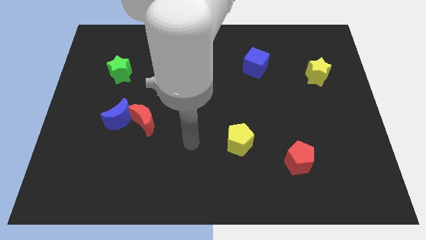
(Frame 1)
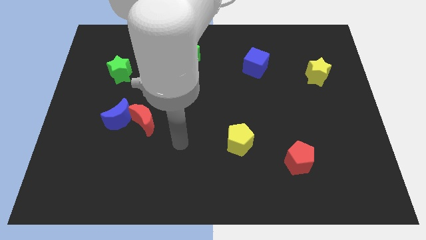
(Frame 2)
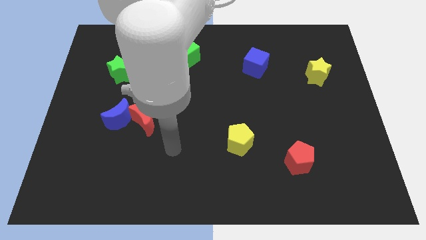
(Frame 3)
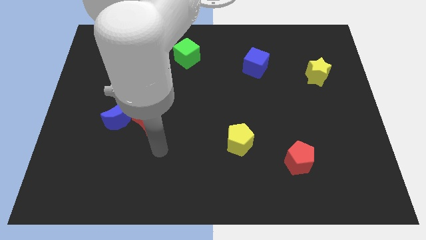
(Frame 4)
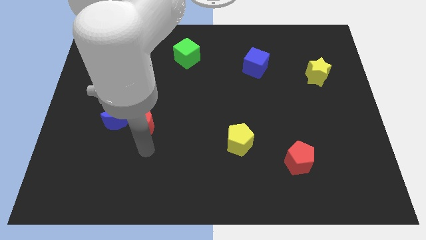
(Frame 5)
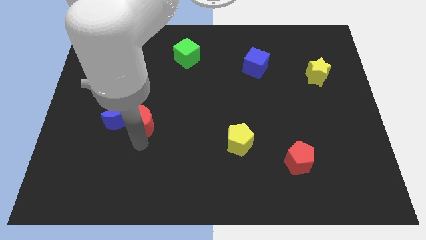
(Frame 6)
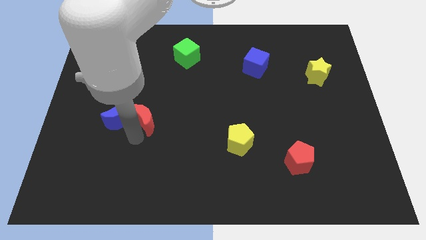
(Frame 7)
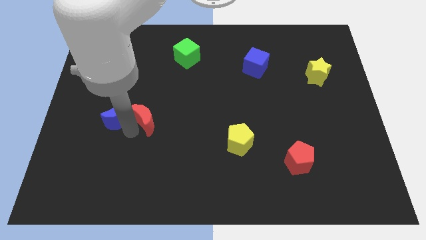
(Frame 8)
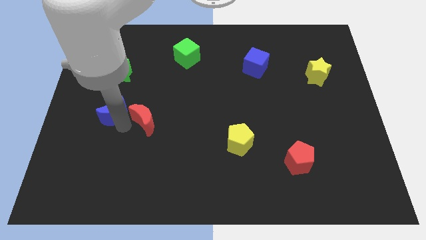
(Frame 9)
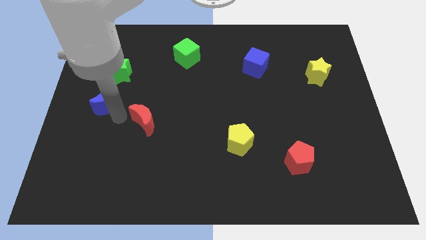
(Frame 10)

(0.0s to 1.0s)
pull the red moon apart from the blue moon

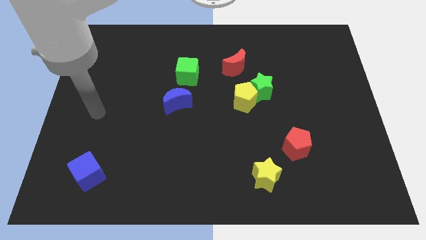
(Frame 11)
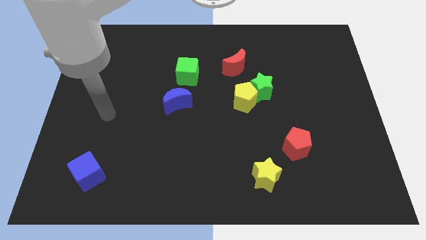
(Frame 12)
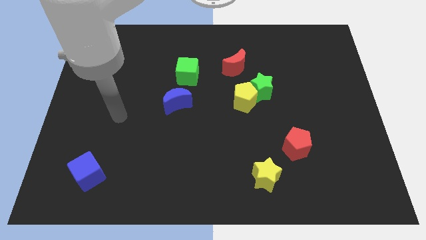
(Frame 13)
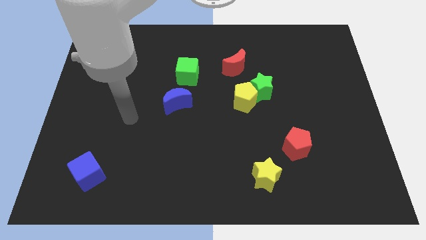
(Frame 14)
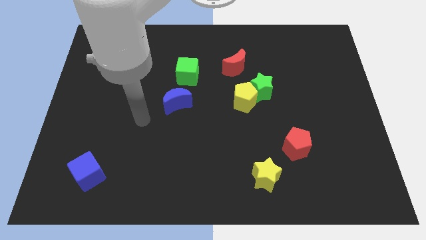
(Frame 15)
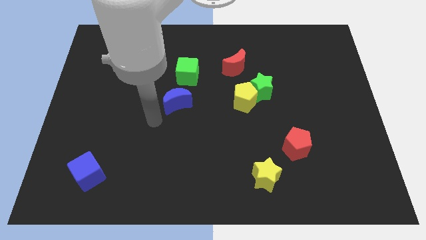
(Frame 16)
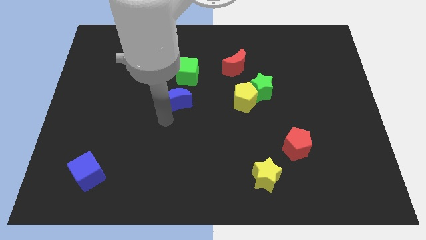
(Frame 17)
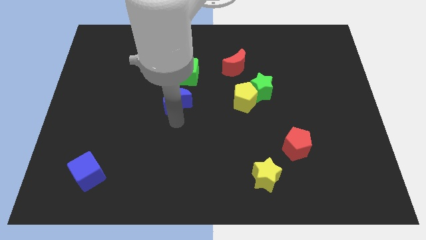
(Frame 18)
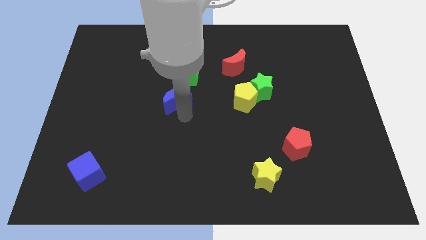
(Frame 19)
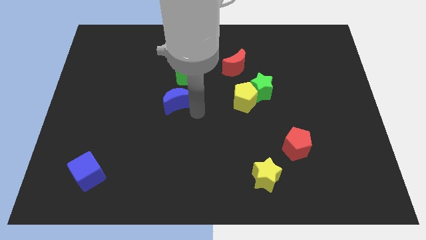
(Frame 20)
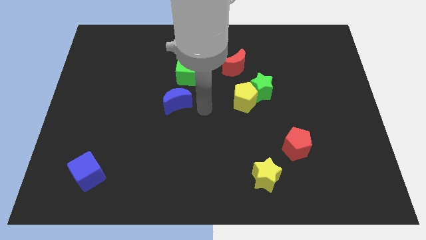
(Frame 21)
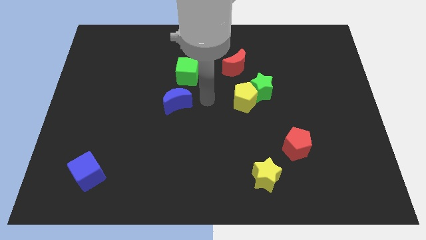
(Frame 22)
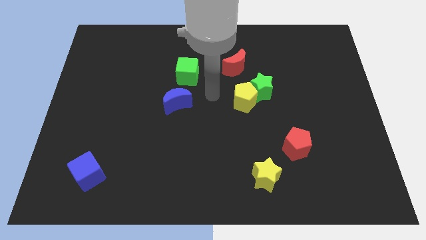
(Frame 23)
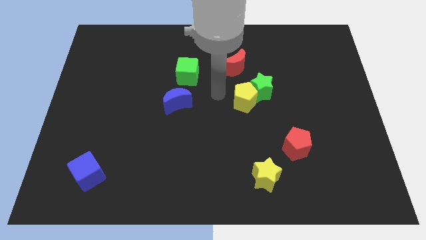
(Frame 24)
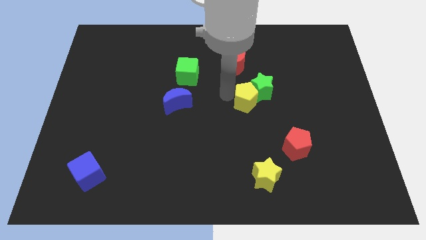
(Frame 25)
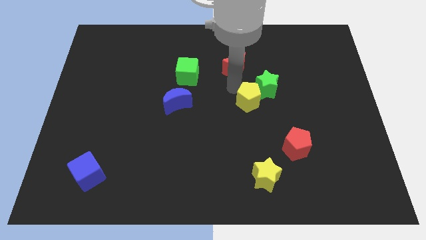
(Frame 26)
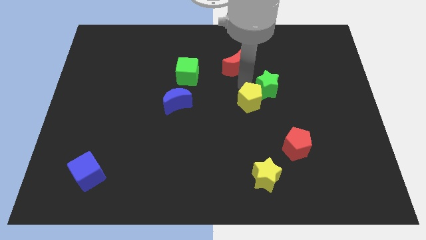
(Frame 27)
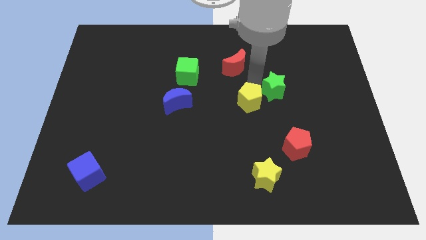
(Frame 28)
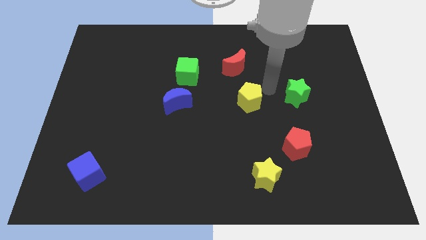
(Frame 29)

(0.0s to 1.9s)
pull the yellow pentagon apart from the green star

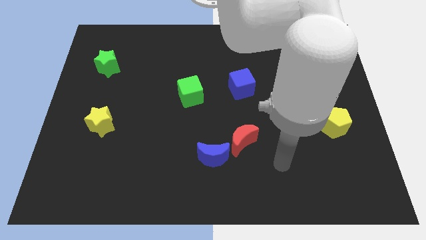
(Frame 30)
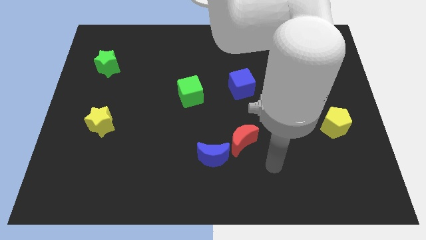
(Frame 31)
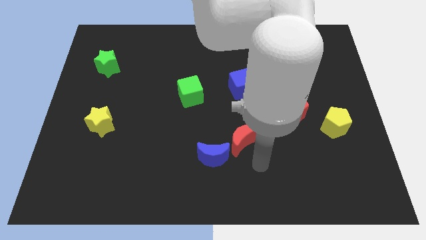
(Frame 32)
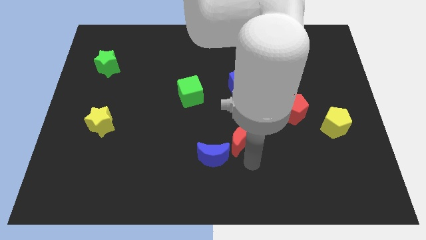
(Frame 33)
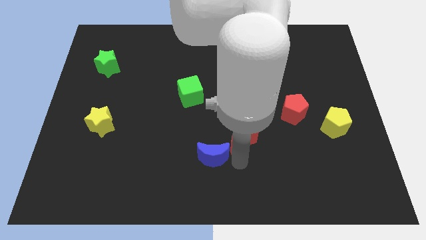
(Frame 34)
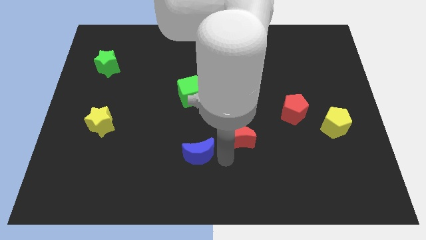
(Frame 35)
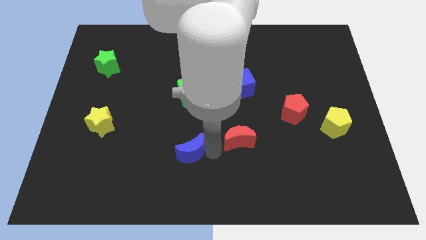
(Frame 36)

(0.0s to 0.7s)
move the red moon away from the blue moon

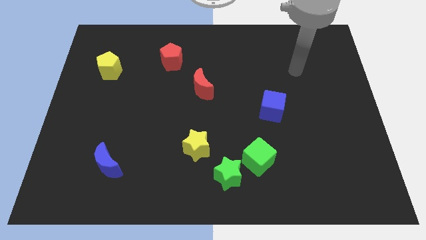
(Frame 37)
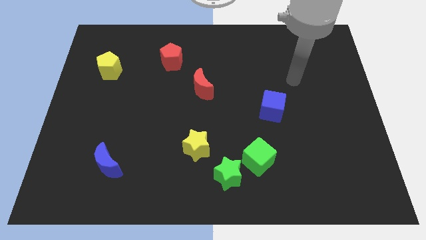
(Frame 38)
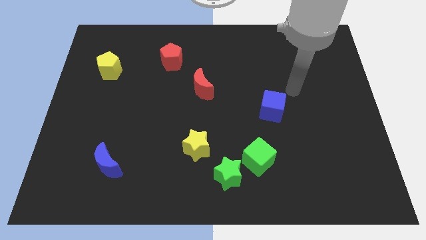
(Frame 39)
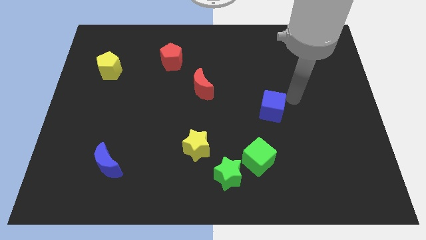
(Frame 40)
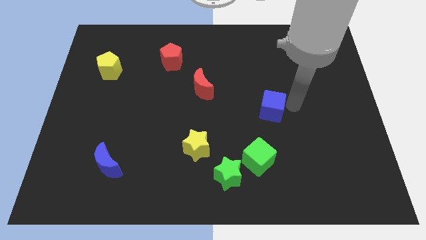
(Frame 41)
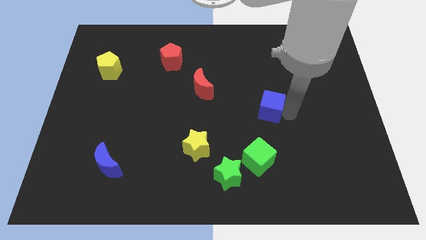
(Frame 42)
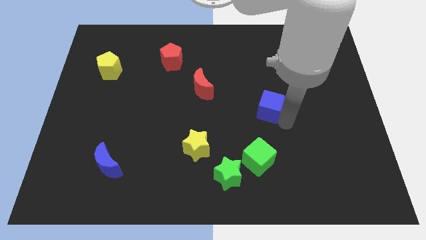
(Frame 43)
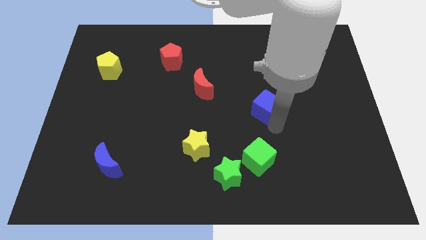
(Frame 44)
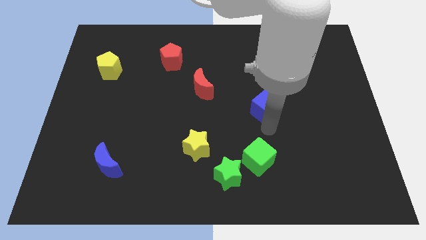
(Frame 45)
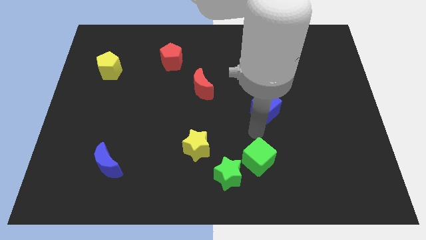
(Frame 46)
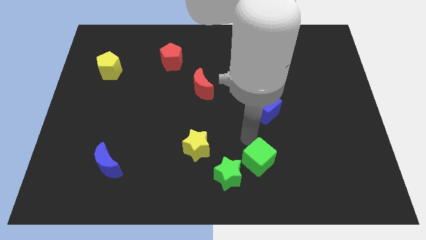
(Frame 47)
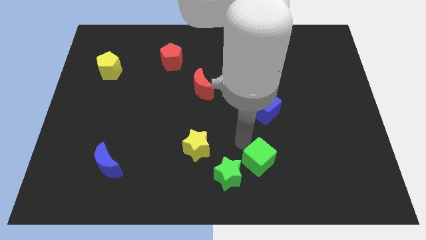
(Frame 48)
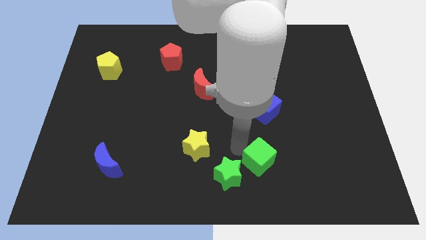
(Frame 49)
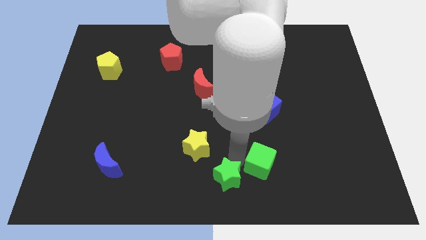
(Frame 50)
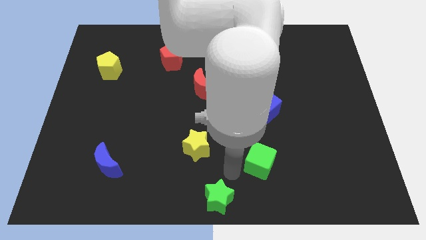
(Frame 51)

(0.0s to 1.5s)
move the green cube away from the green star

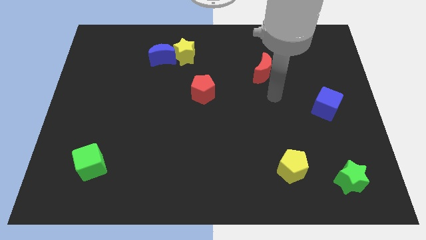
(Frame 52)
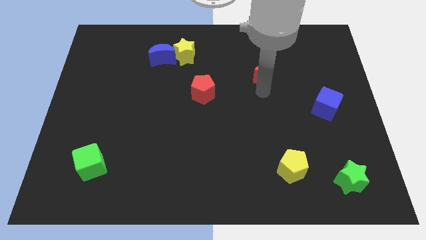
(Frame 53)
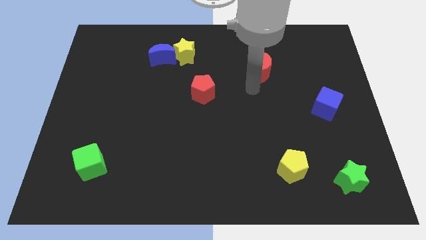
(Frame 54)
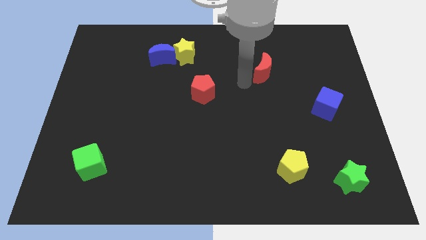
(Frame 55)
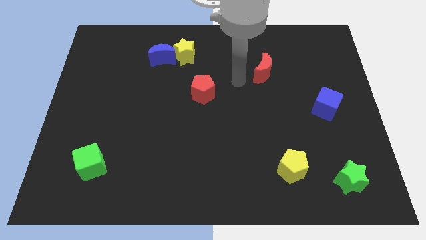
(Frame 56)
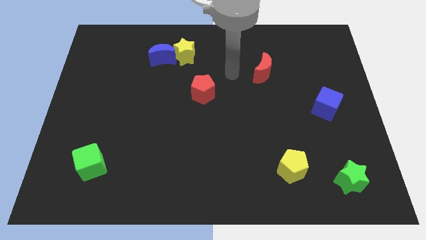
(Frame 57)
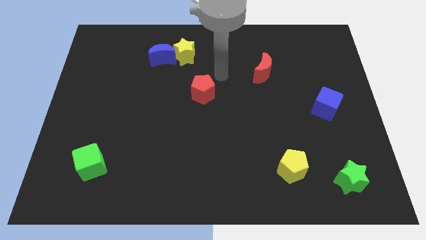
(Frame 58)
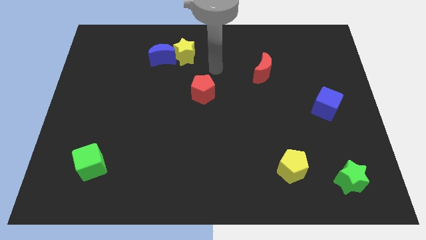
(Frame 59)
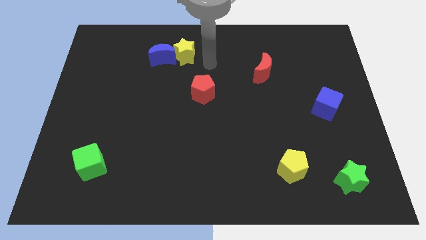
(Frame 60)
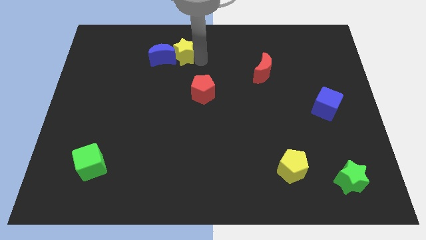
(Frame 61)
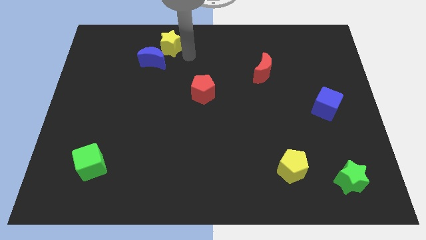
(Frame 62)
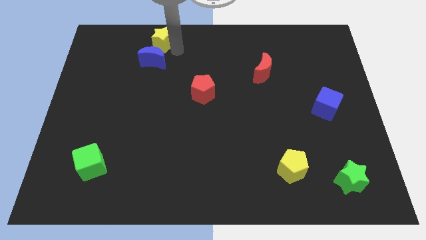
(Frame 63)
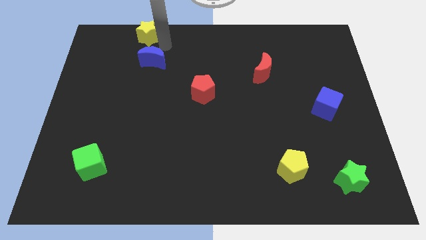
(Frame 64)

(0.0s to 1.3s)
move the blue moon away from the yellow star

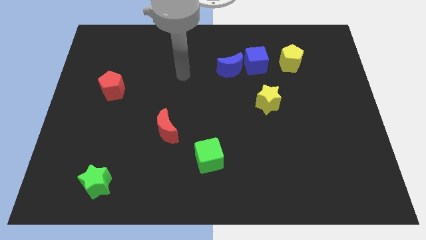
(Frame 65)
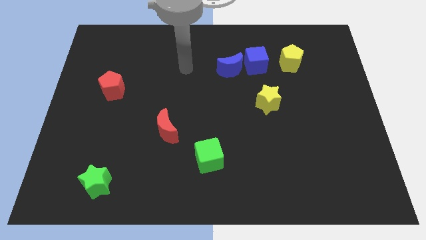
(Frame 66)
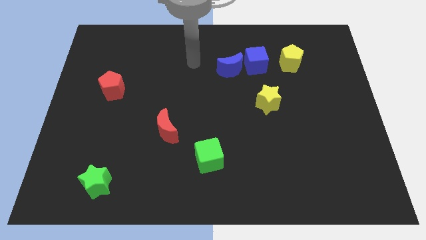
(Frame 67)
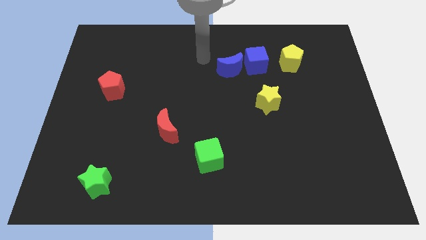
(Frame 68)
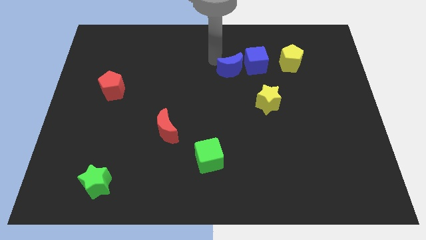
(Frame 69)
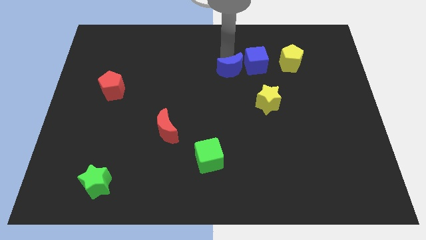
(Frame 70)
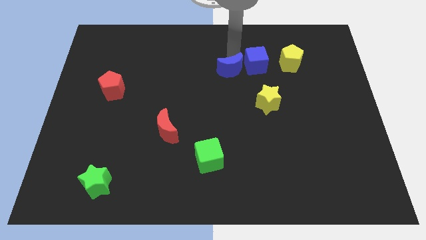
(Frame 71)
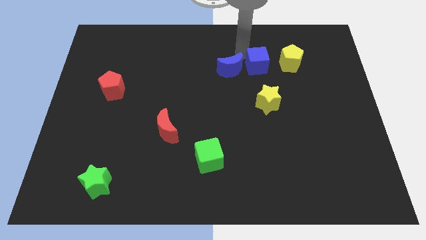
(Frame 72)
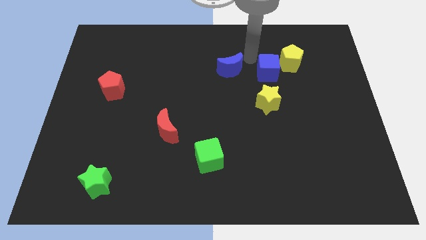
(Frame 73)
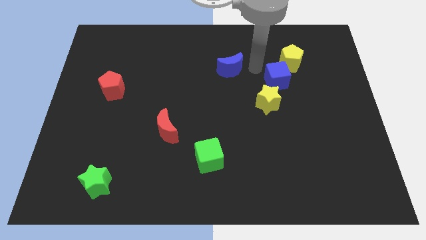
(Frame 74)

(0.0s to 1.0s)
move the blue moon away from the blue cube

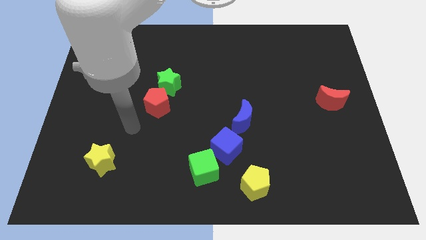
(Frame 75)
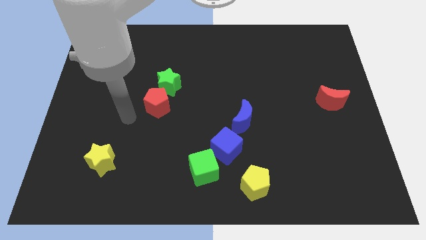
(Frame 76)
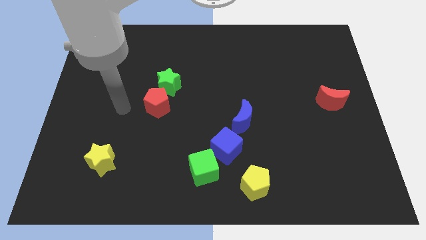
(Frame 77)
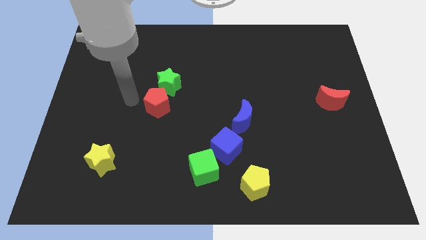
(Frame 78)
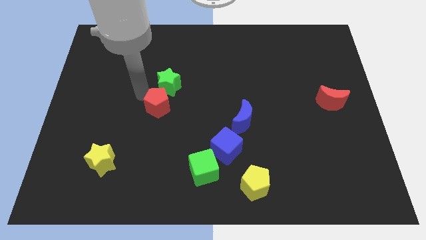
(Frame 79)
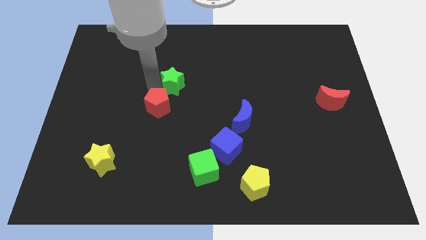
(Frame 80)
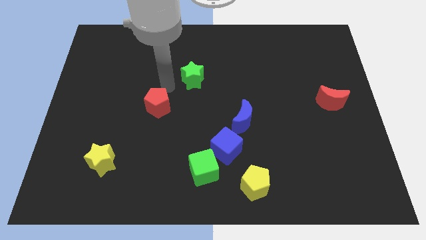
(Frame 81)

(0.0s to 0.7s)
pull the red pentagon apart from the green star

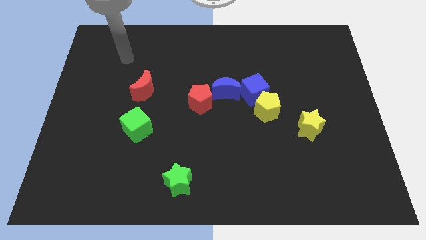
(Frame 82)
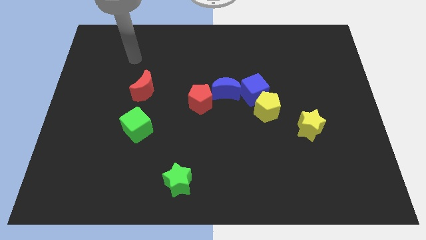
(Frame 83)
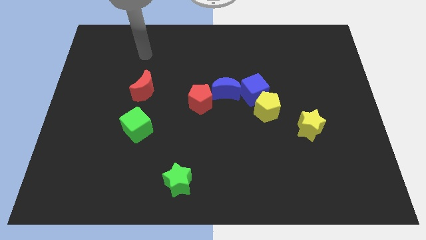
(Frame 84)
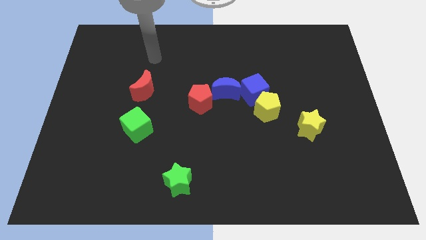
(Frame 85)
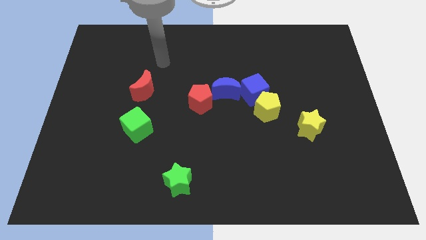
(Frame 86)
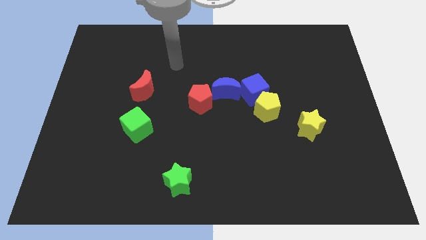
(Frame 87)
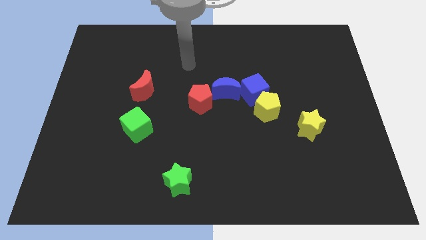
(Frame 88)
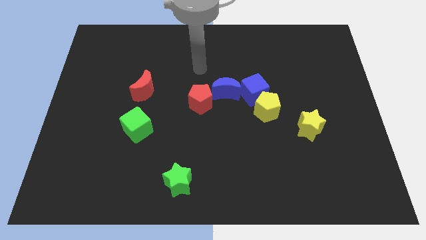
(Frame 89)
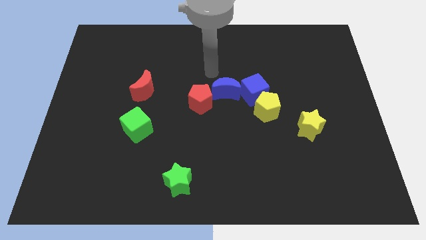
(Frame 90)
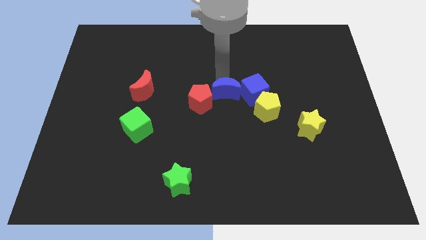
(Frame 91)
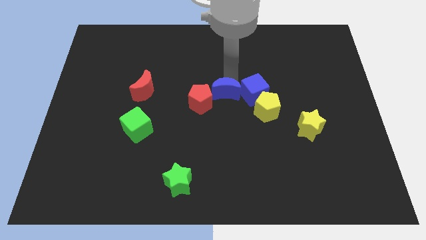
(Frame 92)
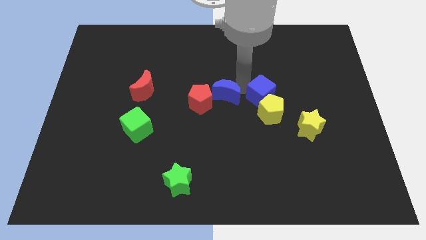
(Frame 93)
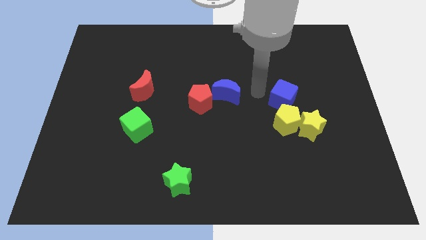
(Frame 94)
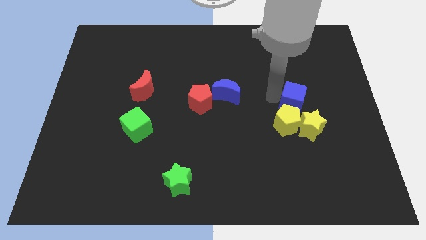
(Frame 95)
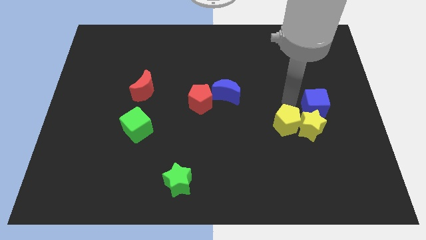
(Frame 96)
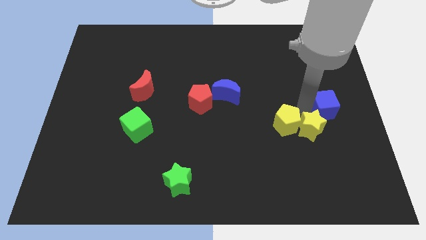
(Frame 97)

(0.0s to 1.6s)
move the yellow pentagon away from the blue cube
